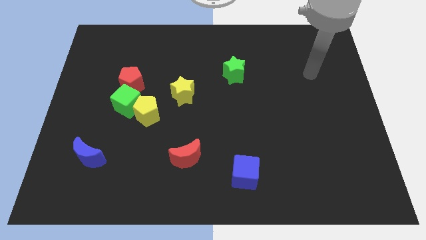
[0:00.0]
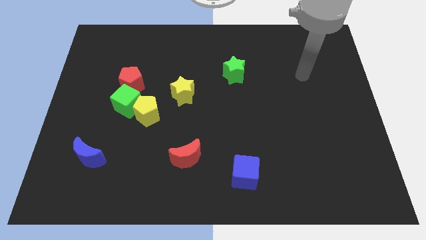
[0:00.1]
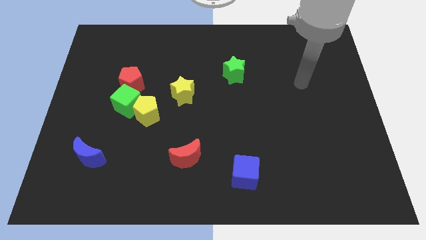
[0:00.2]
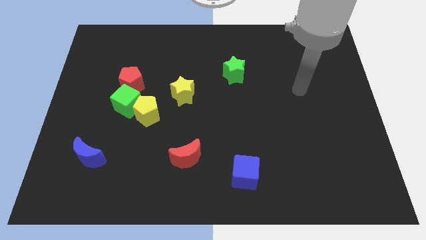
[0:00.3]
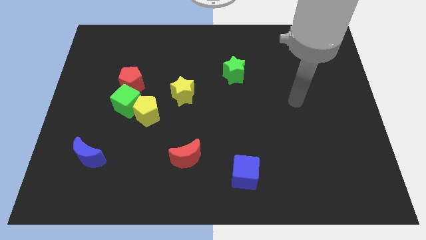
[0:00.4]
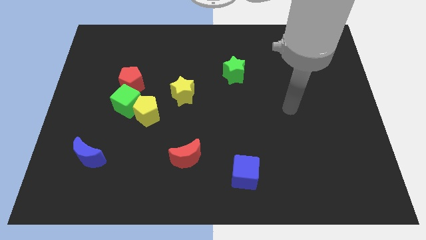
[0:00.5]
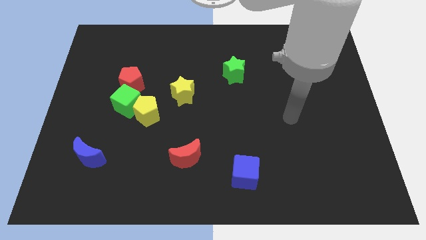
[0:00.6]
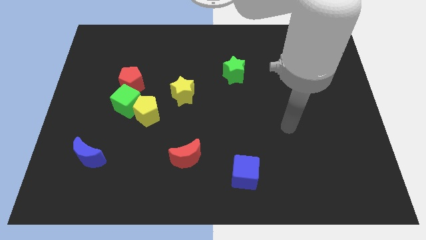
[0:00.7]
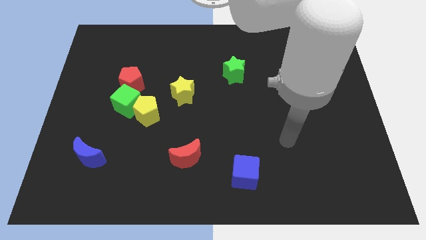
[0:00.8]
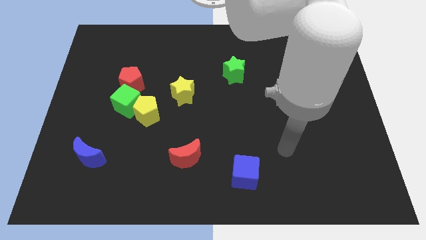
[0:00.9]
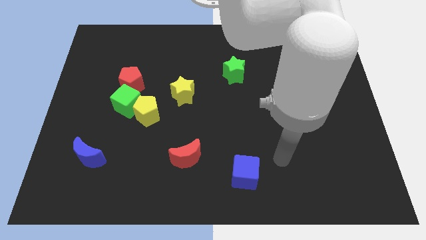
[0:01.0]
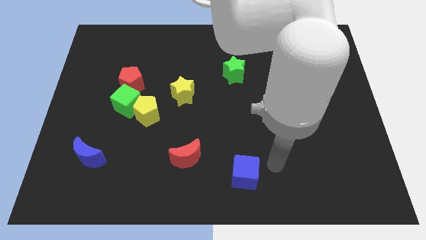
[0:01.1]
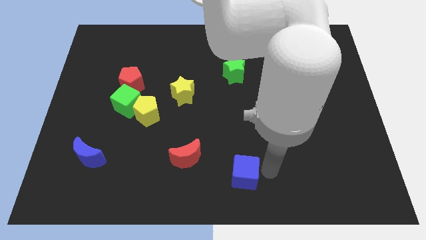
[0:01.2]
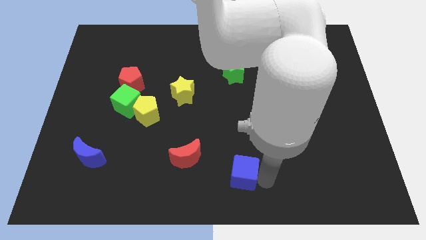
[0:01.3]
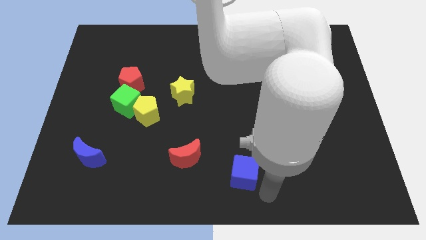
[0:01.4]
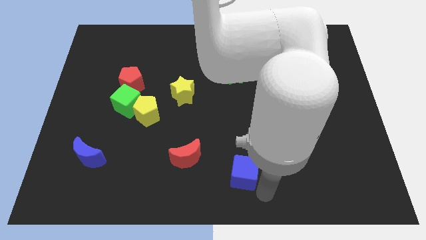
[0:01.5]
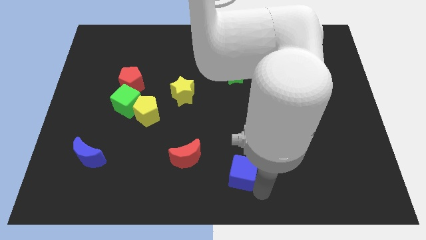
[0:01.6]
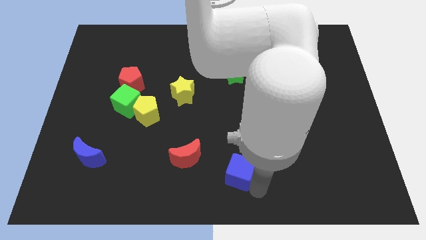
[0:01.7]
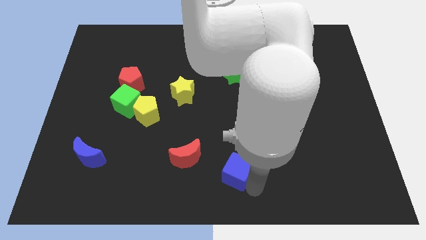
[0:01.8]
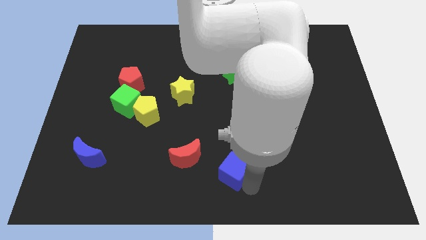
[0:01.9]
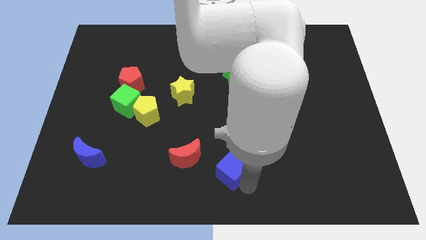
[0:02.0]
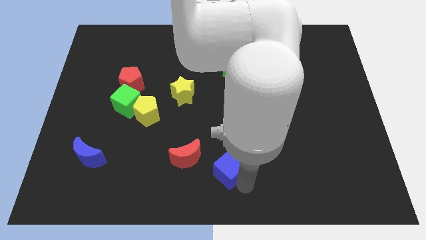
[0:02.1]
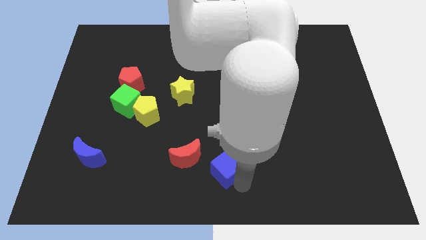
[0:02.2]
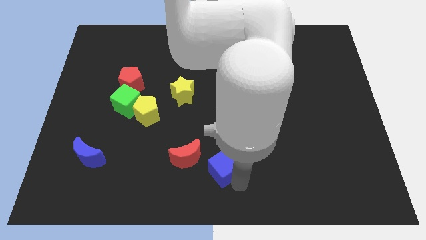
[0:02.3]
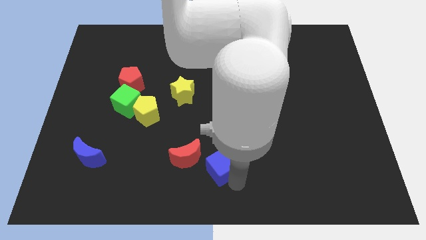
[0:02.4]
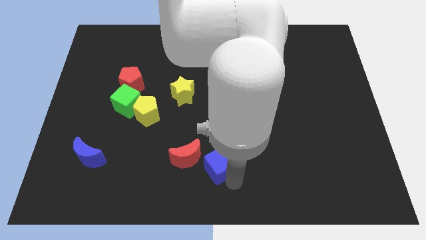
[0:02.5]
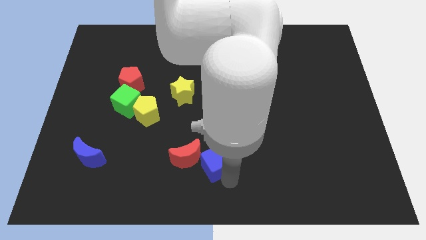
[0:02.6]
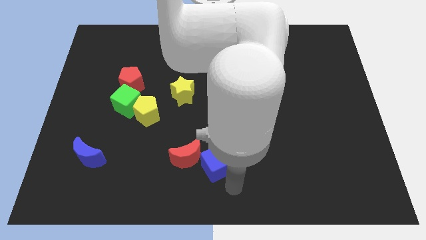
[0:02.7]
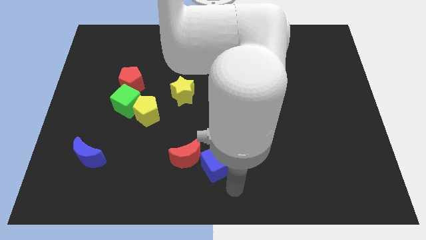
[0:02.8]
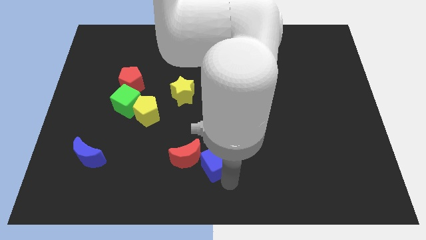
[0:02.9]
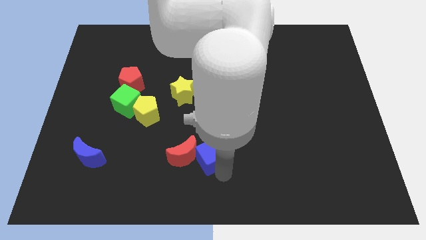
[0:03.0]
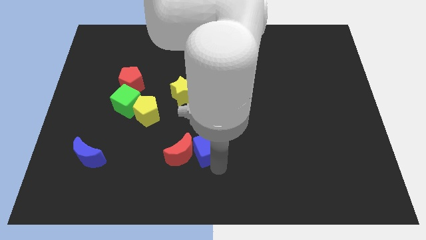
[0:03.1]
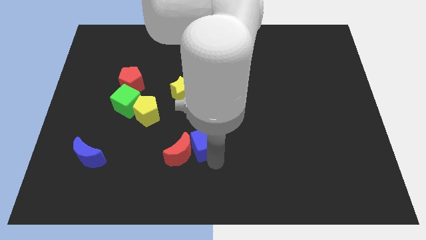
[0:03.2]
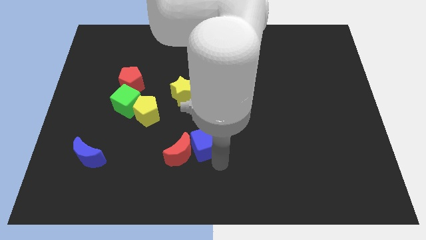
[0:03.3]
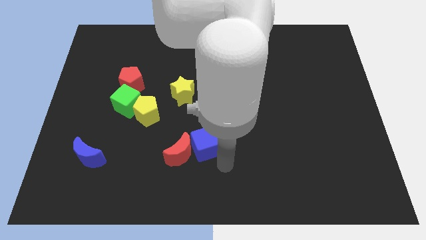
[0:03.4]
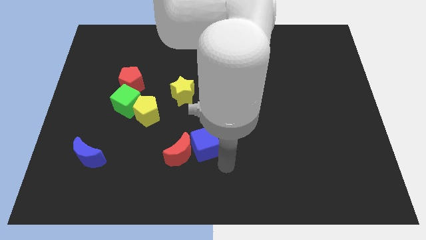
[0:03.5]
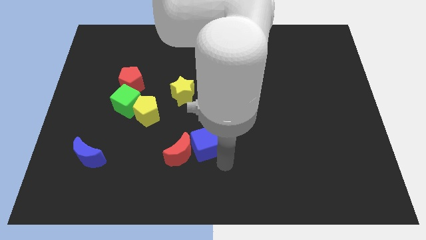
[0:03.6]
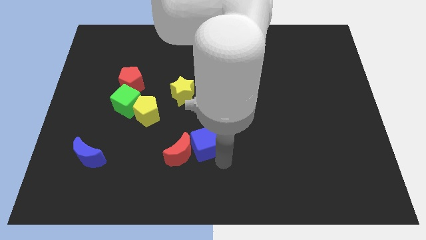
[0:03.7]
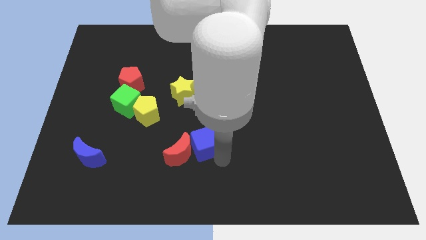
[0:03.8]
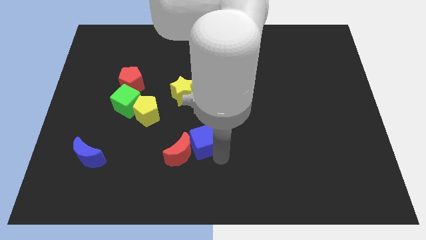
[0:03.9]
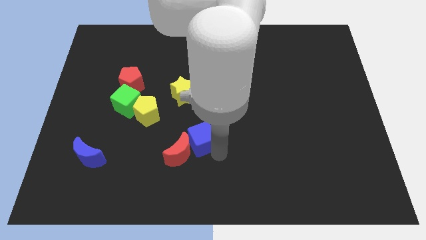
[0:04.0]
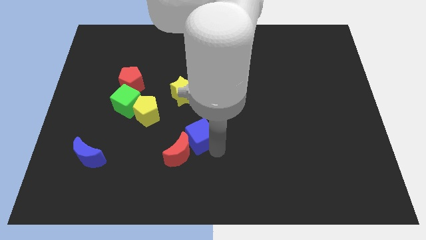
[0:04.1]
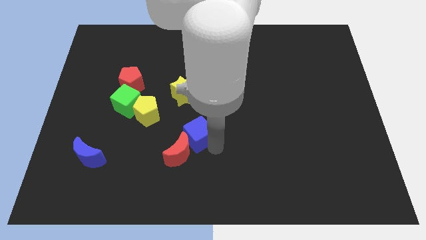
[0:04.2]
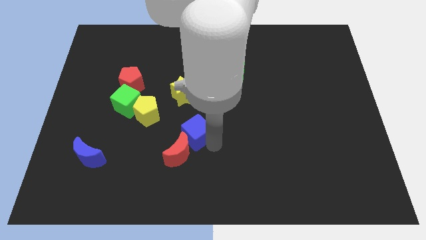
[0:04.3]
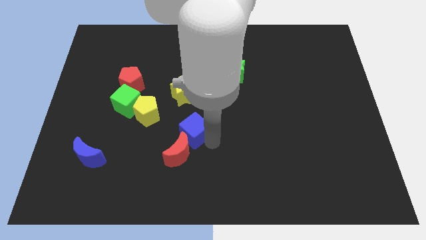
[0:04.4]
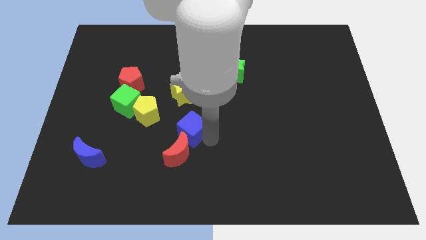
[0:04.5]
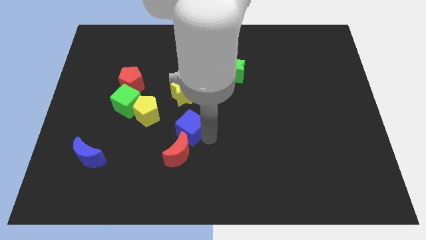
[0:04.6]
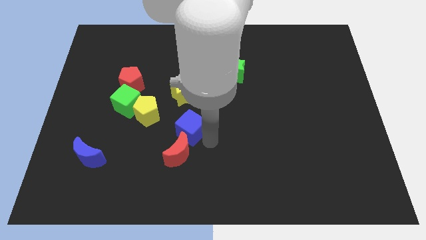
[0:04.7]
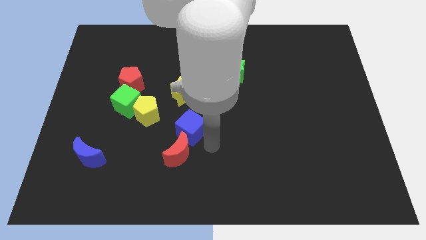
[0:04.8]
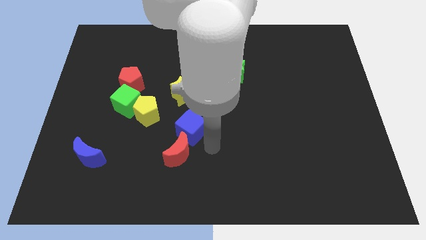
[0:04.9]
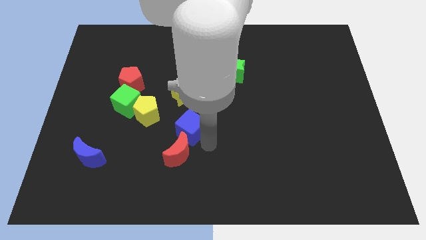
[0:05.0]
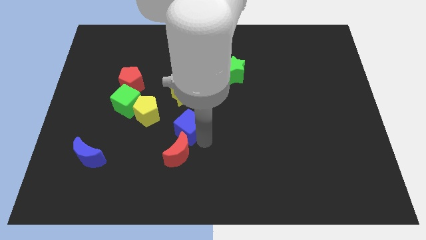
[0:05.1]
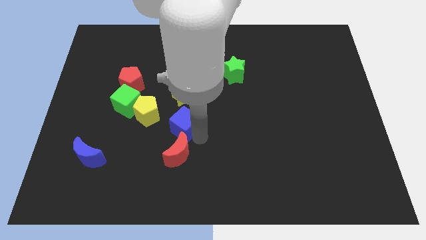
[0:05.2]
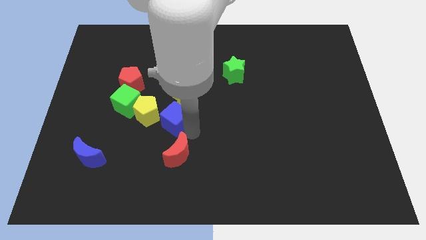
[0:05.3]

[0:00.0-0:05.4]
push the blue cube diagonally up and to the left

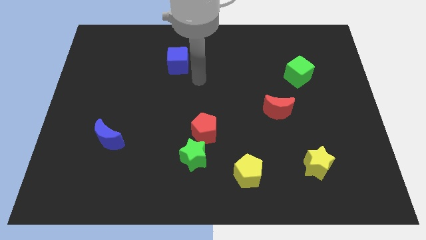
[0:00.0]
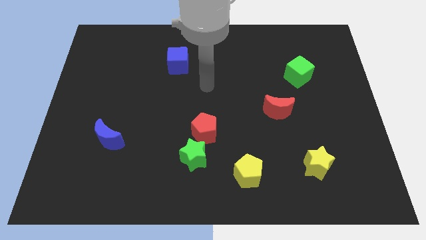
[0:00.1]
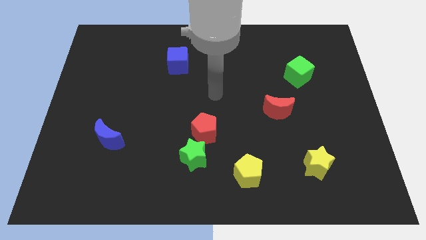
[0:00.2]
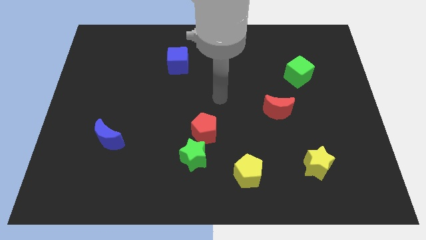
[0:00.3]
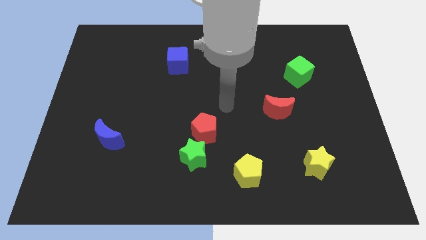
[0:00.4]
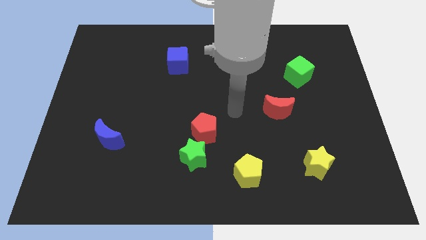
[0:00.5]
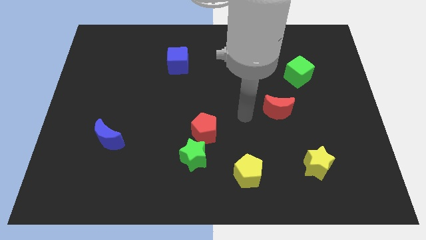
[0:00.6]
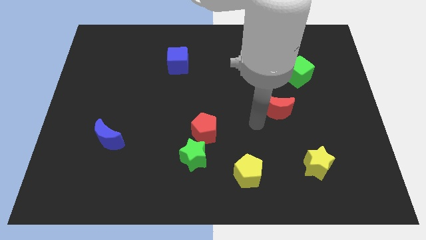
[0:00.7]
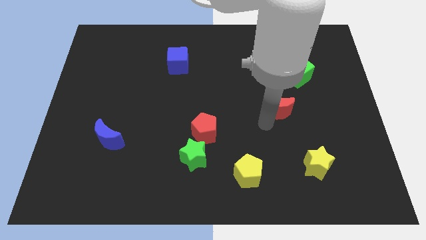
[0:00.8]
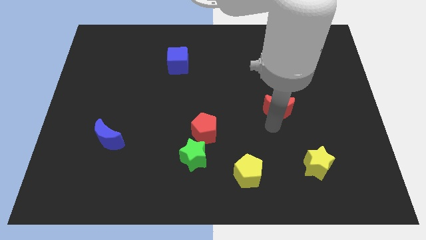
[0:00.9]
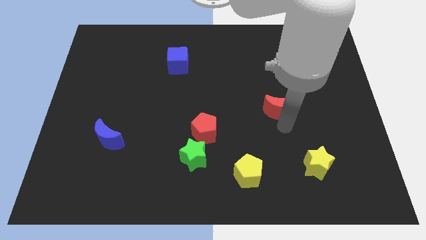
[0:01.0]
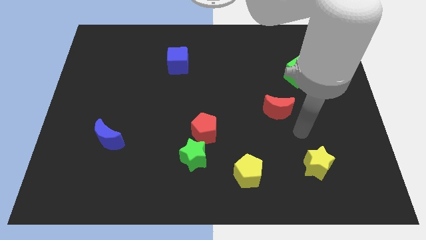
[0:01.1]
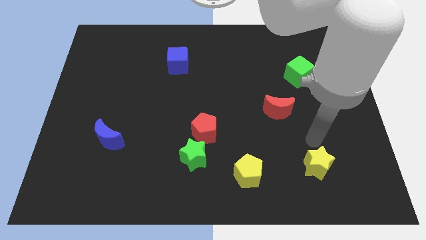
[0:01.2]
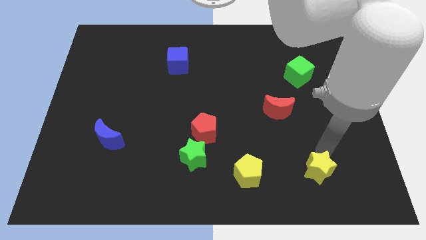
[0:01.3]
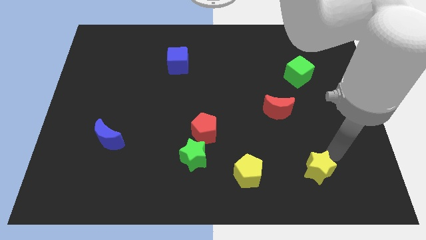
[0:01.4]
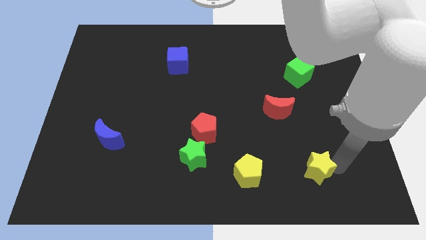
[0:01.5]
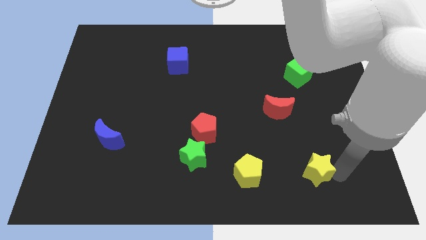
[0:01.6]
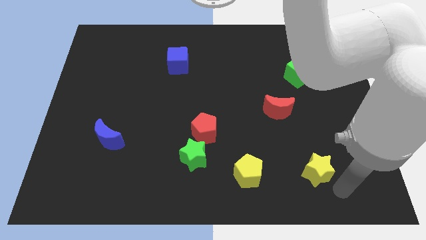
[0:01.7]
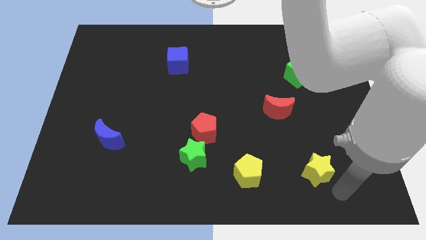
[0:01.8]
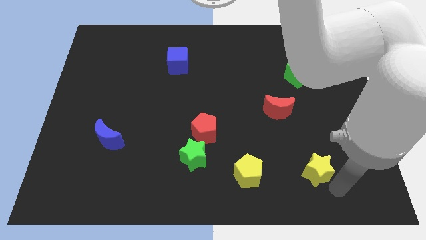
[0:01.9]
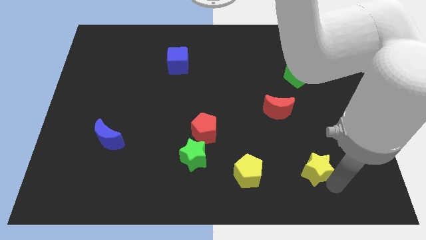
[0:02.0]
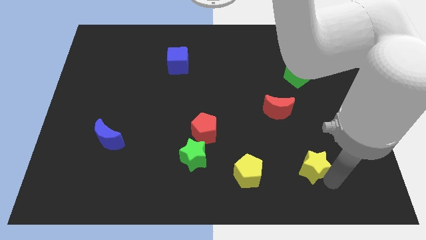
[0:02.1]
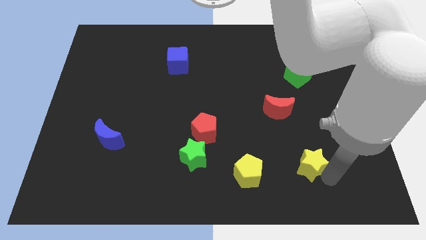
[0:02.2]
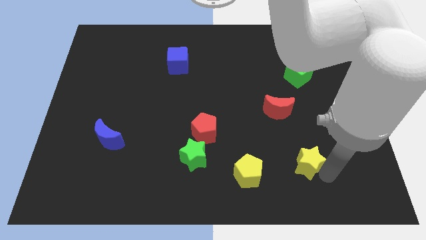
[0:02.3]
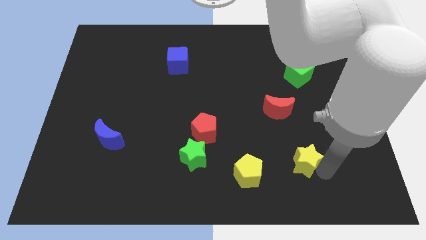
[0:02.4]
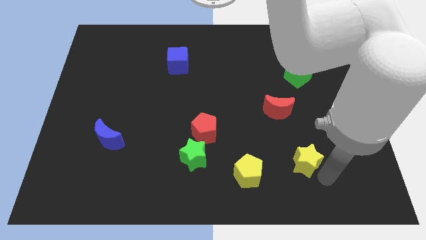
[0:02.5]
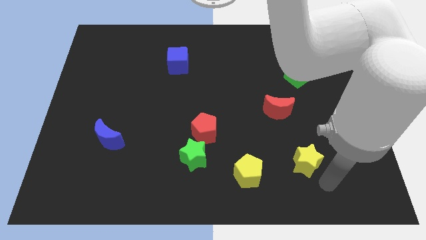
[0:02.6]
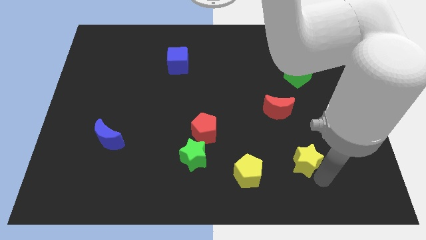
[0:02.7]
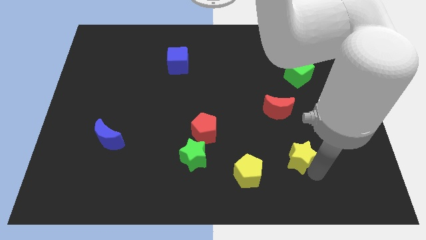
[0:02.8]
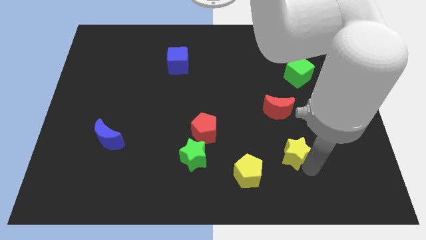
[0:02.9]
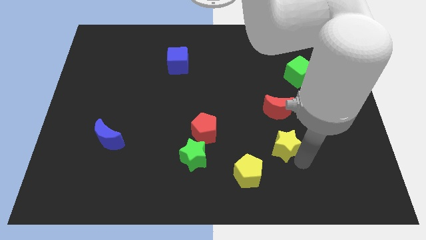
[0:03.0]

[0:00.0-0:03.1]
move the yellow star somewhat diagonally upwards and to the left
